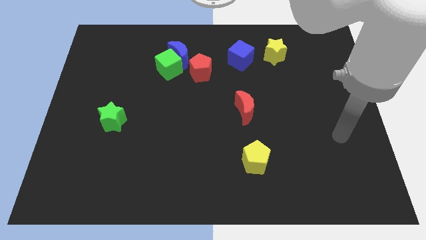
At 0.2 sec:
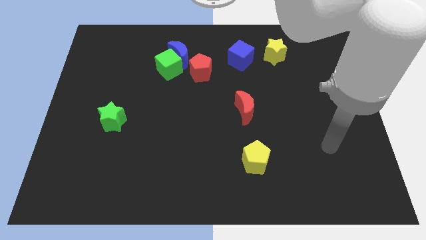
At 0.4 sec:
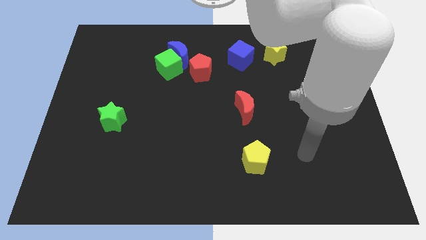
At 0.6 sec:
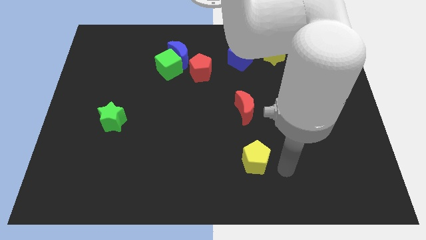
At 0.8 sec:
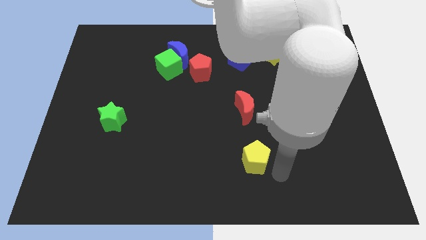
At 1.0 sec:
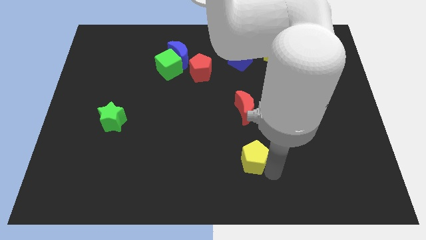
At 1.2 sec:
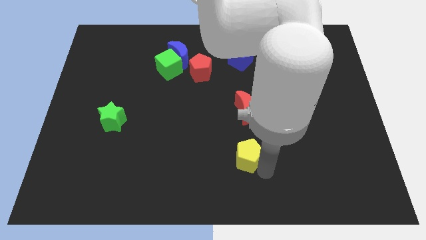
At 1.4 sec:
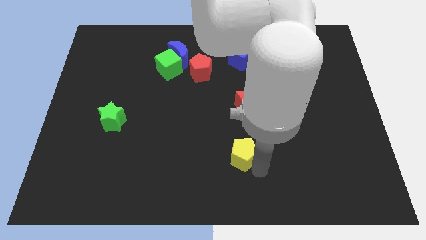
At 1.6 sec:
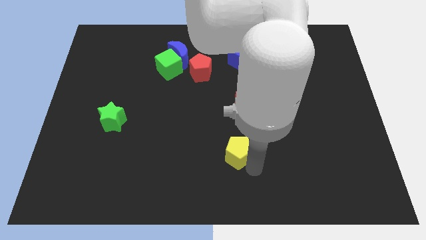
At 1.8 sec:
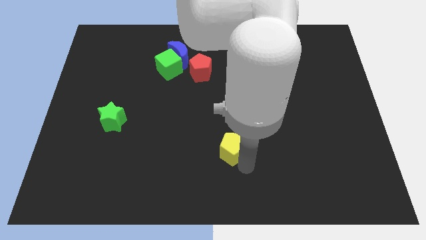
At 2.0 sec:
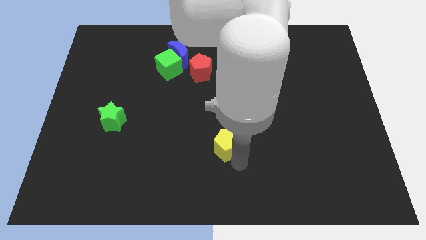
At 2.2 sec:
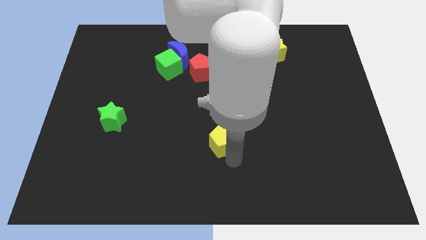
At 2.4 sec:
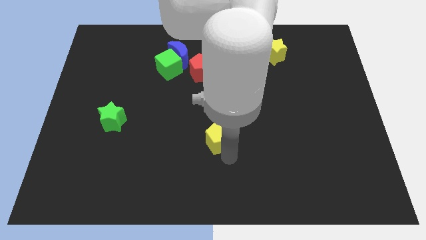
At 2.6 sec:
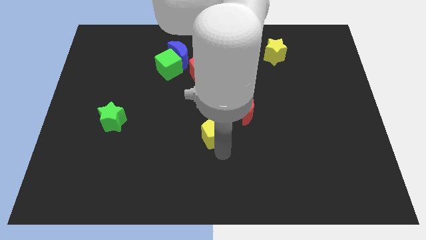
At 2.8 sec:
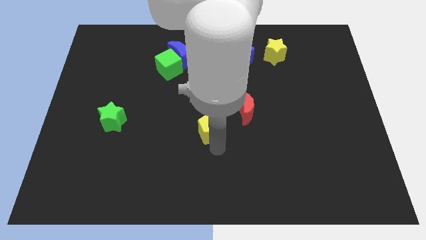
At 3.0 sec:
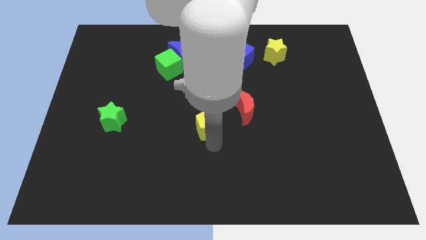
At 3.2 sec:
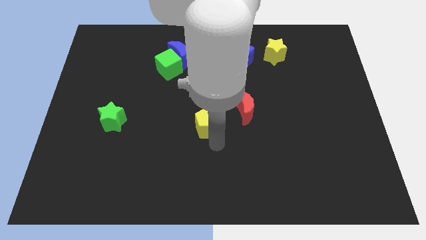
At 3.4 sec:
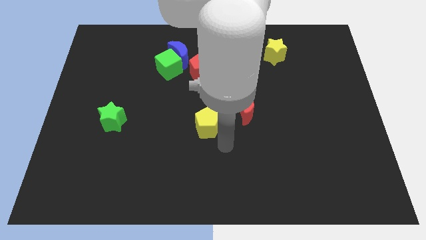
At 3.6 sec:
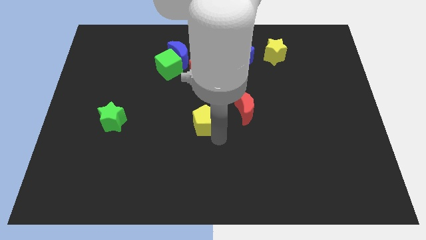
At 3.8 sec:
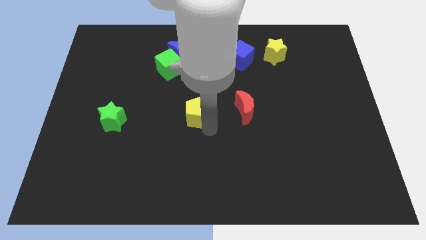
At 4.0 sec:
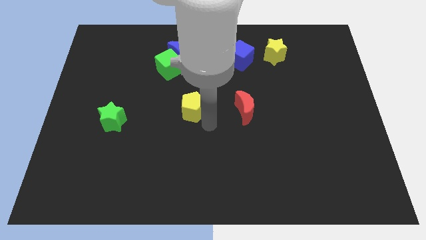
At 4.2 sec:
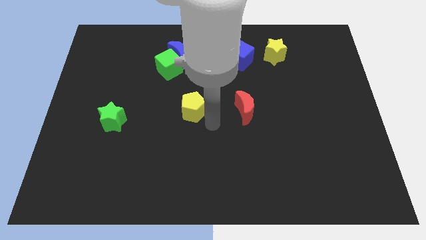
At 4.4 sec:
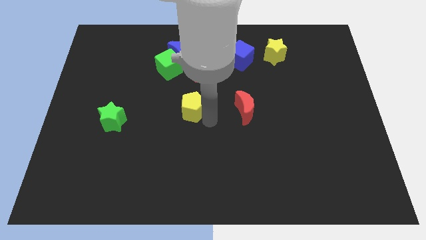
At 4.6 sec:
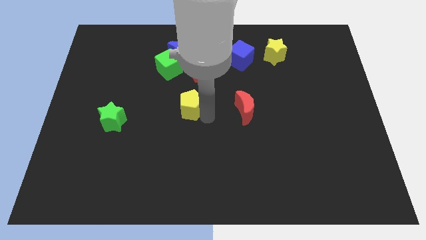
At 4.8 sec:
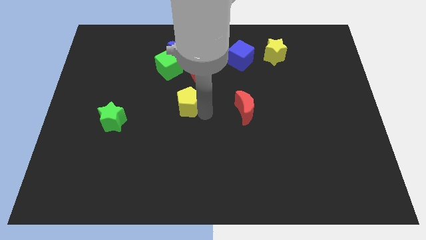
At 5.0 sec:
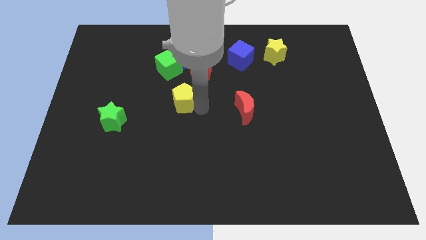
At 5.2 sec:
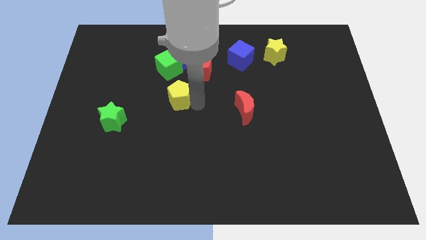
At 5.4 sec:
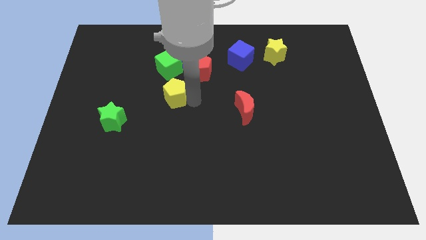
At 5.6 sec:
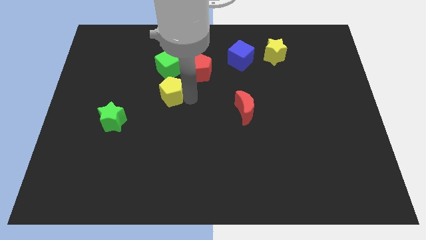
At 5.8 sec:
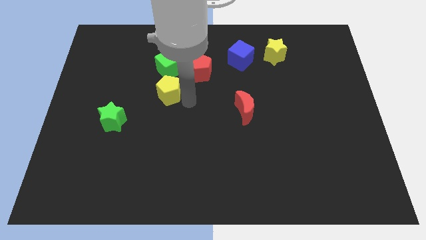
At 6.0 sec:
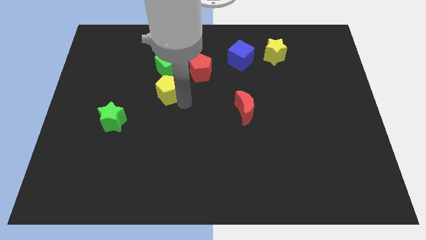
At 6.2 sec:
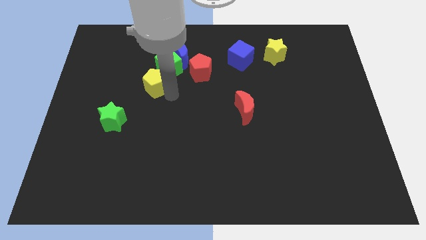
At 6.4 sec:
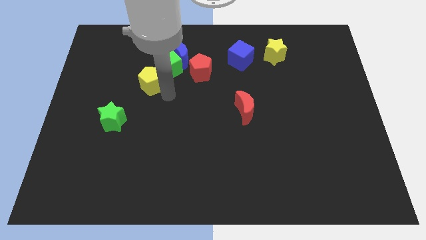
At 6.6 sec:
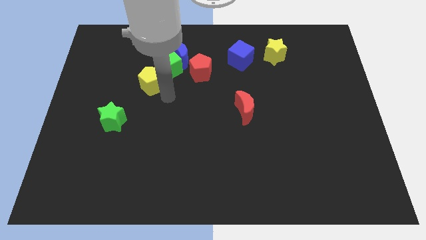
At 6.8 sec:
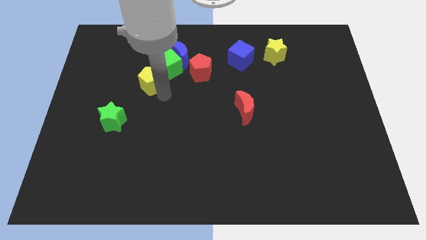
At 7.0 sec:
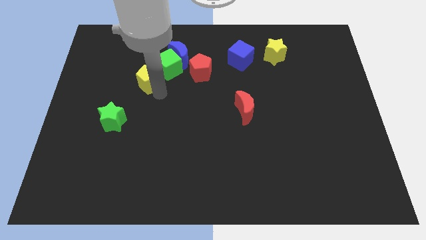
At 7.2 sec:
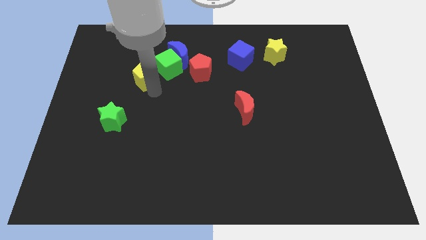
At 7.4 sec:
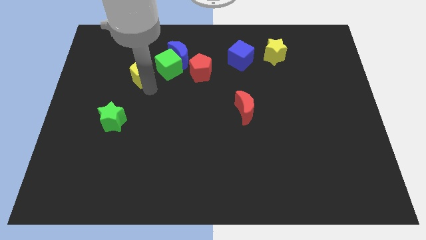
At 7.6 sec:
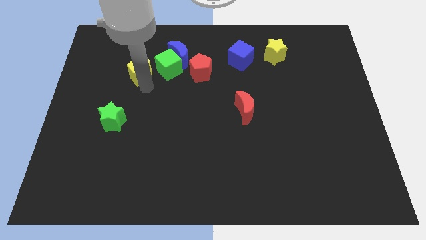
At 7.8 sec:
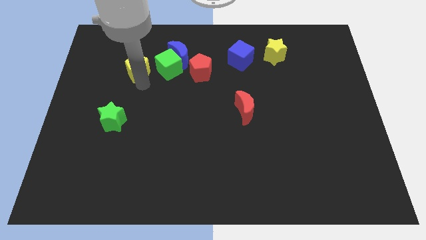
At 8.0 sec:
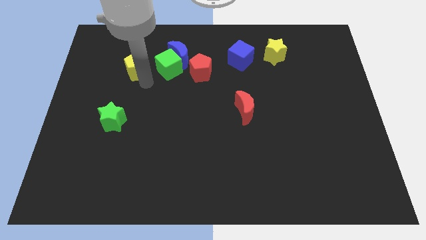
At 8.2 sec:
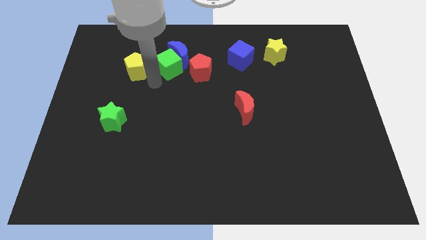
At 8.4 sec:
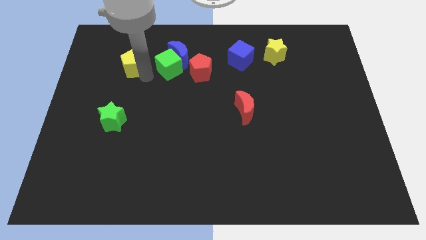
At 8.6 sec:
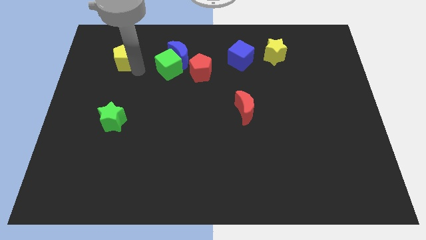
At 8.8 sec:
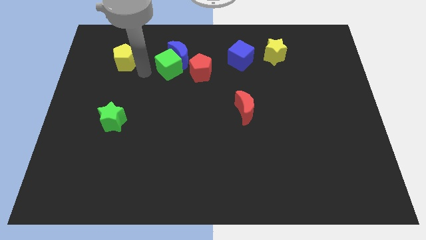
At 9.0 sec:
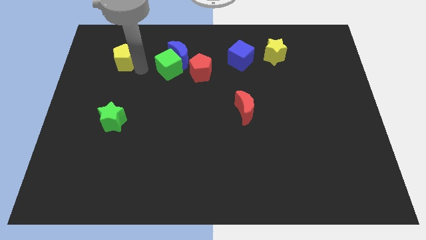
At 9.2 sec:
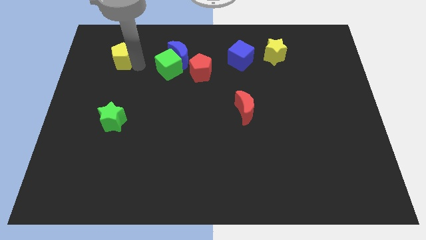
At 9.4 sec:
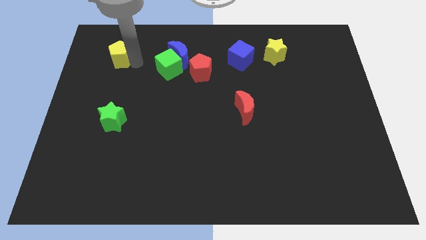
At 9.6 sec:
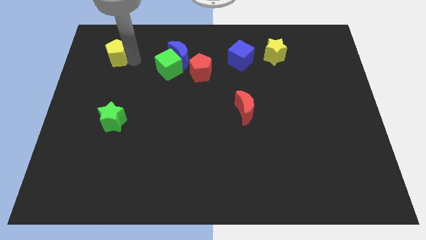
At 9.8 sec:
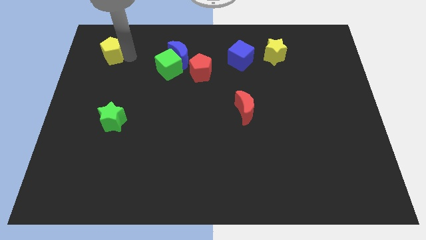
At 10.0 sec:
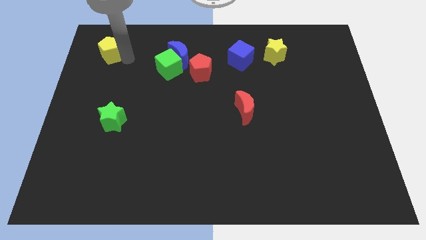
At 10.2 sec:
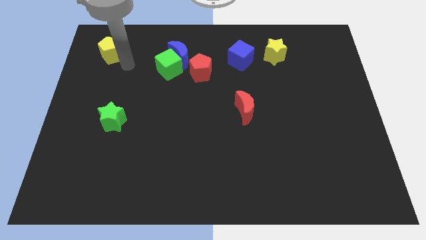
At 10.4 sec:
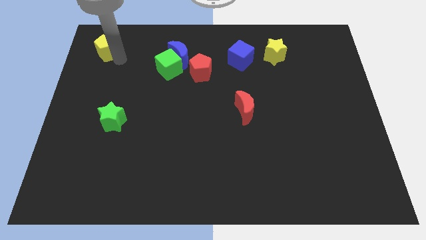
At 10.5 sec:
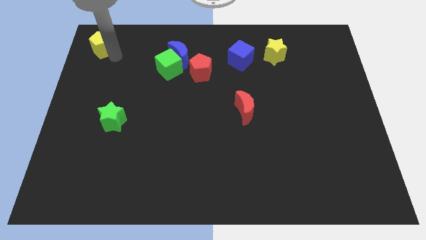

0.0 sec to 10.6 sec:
slide the yellow pentagon to the top left of the board
